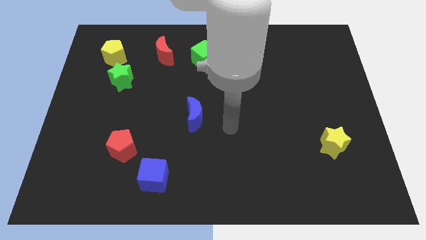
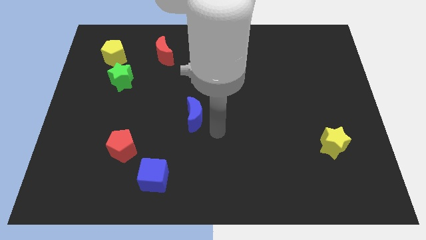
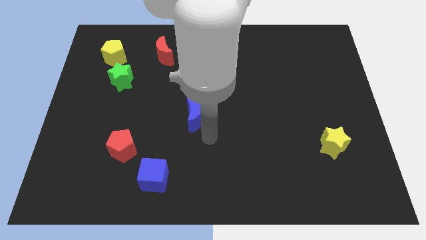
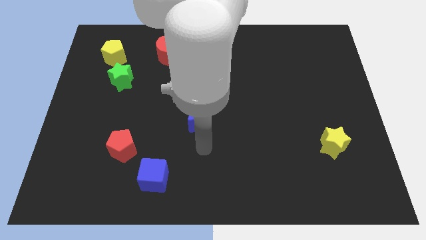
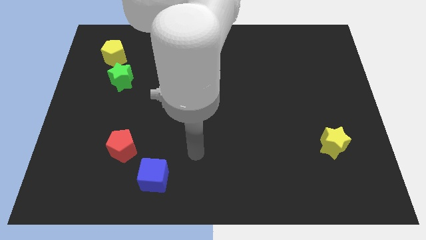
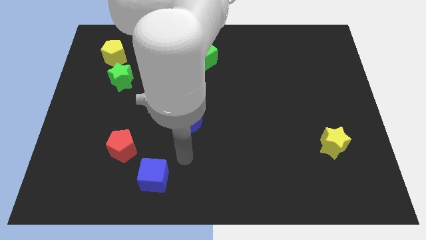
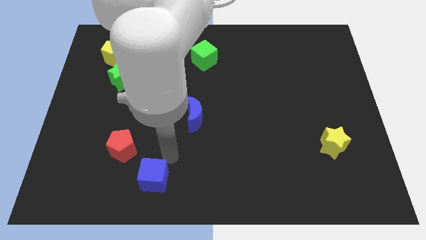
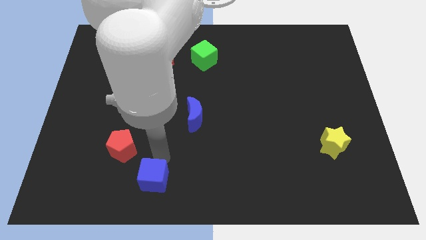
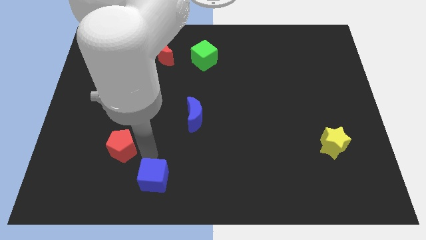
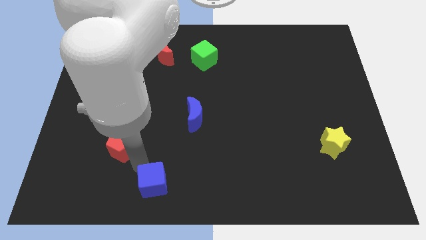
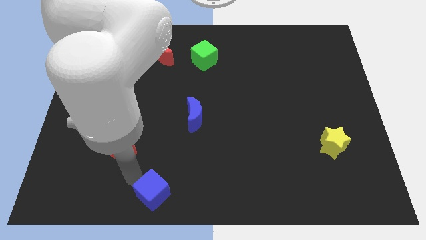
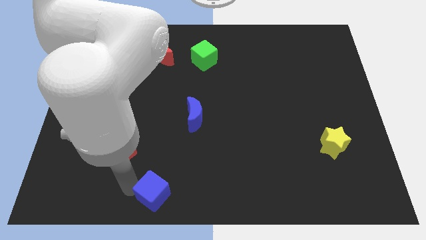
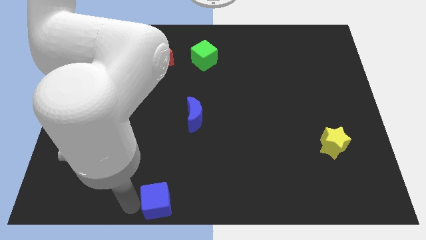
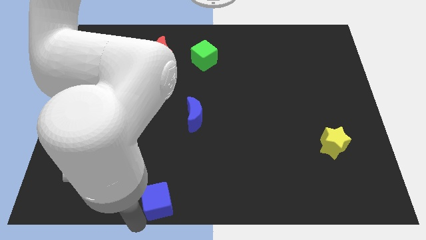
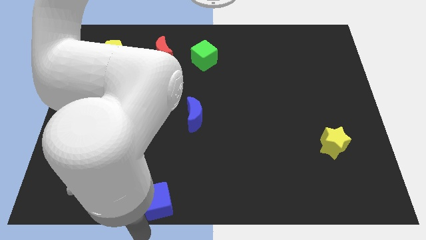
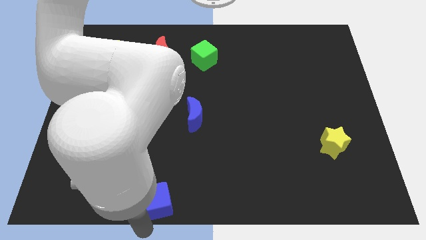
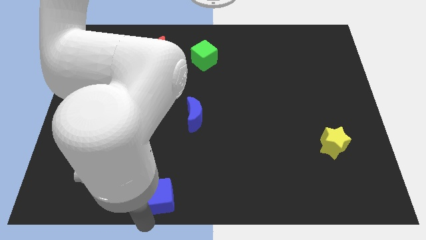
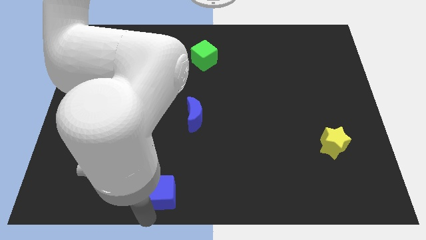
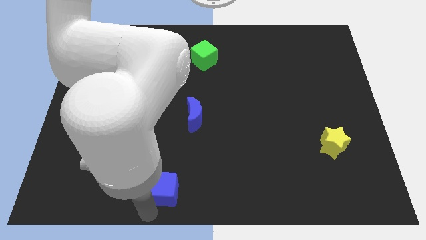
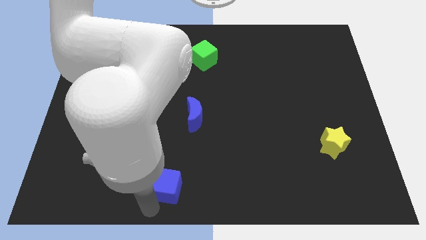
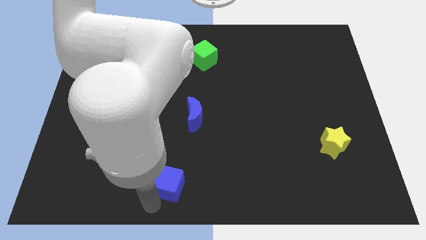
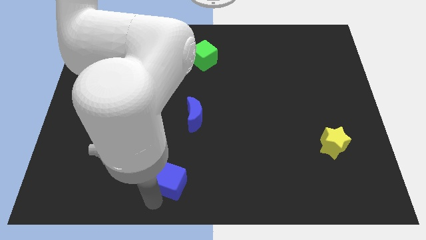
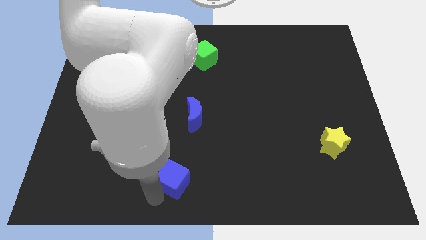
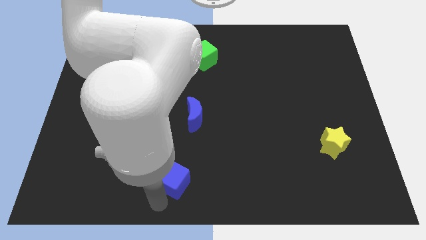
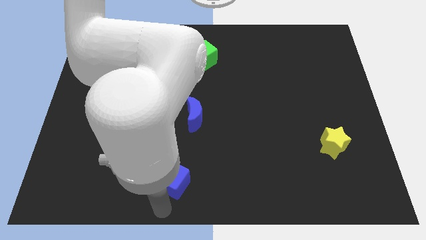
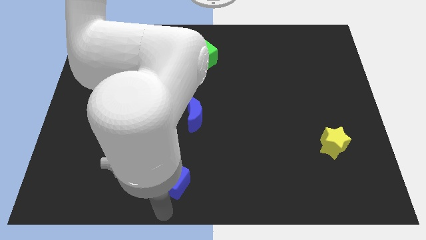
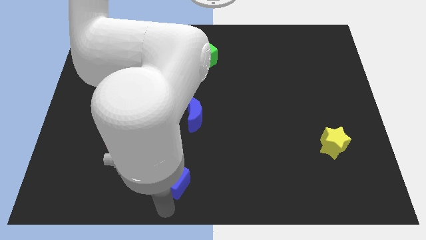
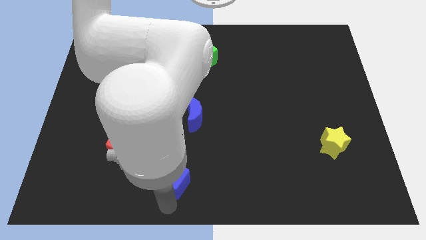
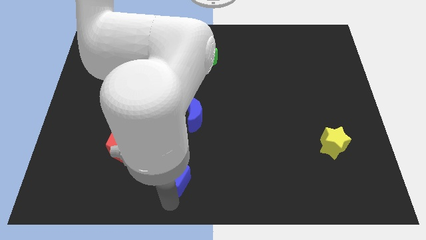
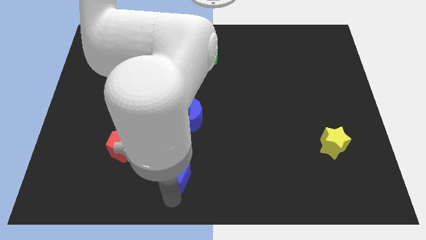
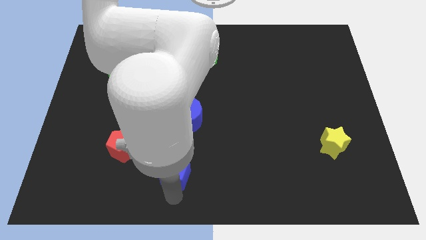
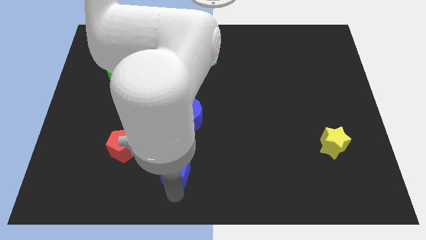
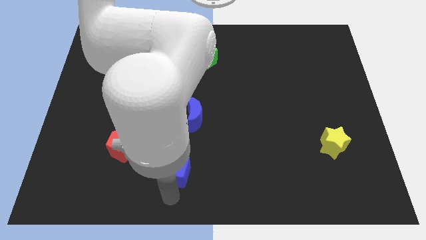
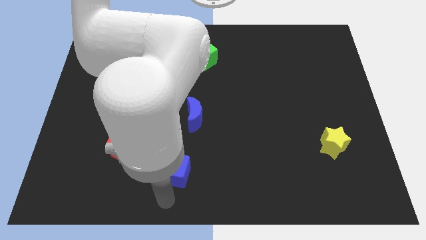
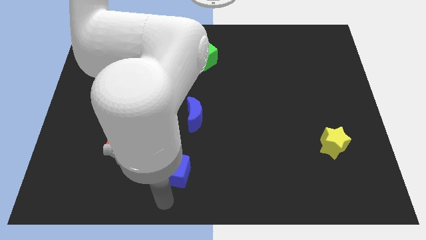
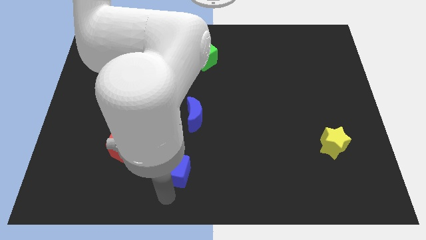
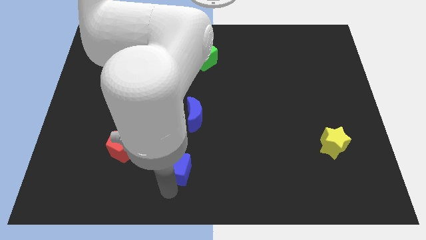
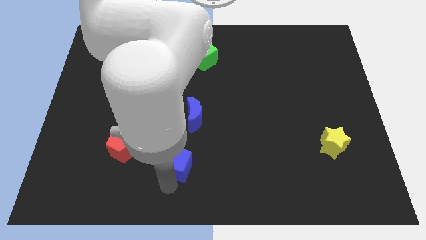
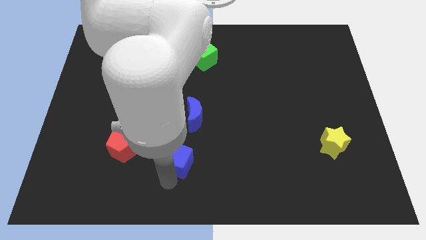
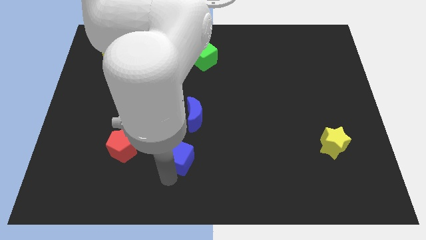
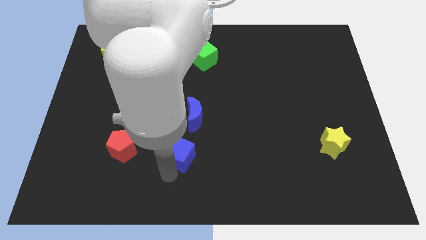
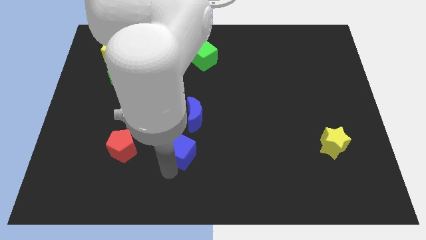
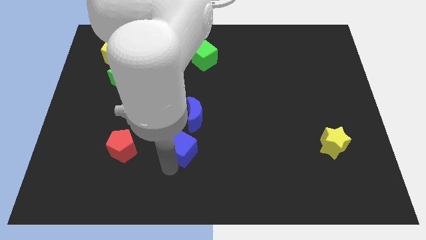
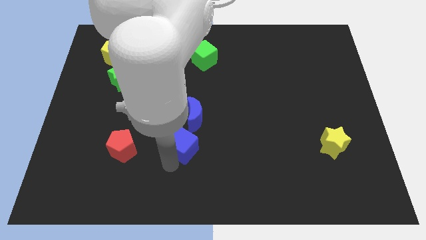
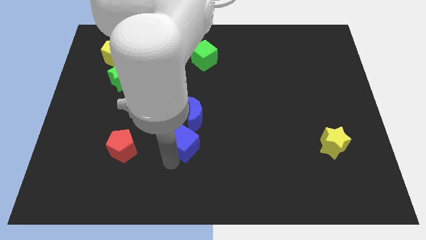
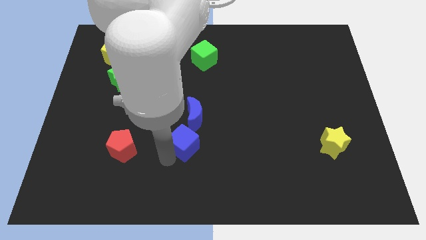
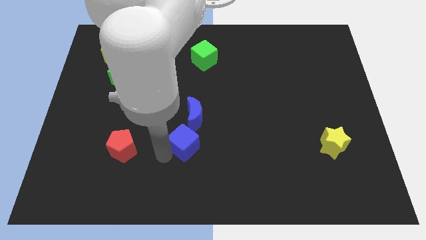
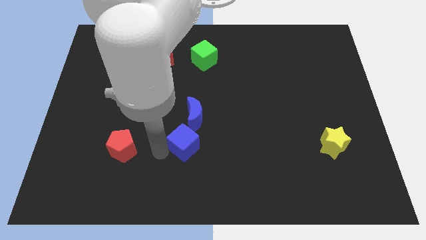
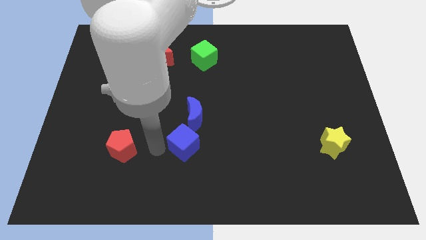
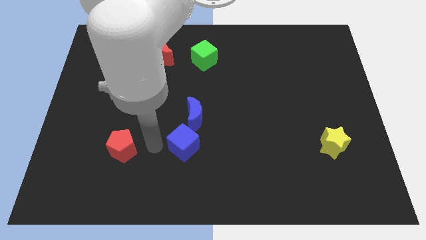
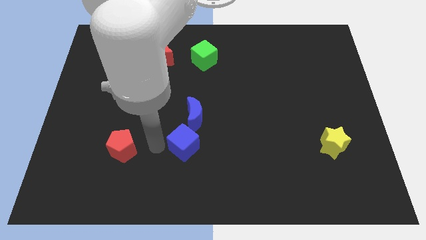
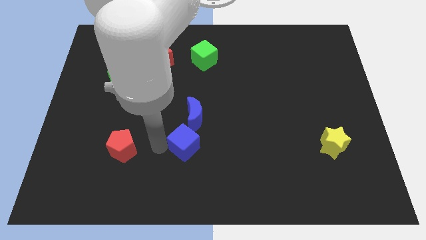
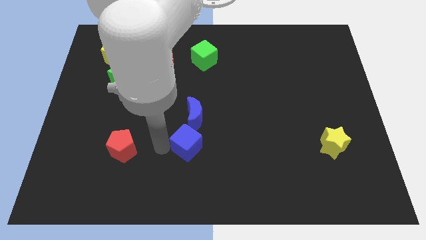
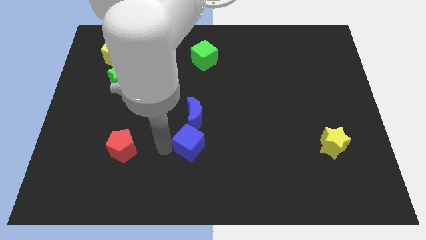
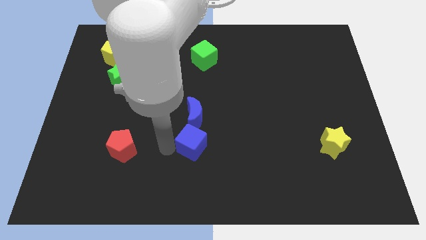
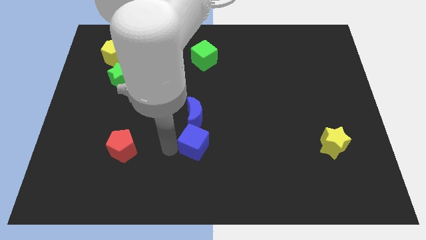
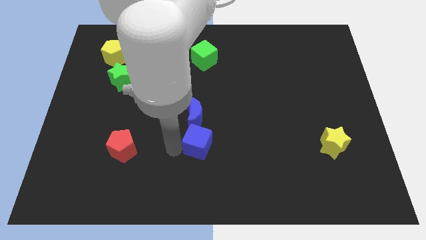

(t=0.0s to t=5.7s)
push the blue cube to the center of the board

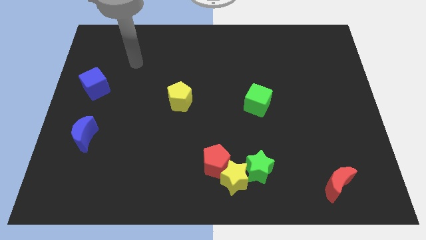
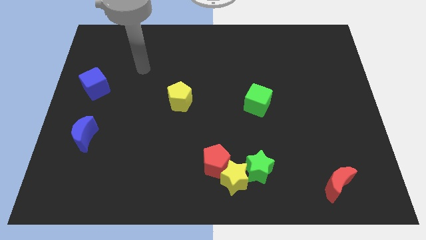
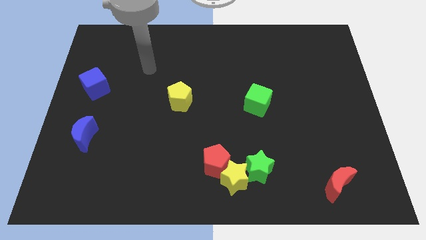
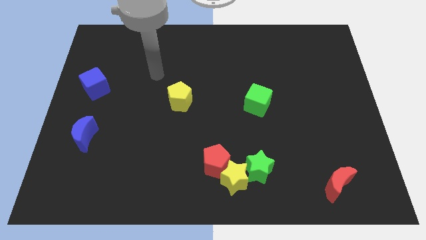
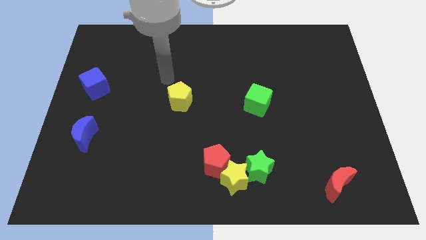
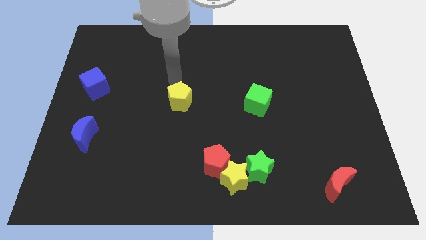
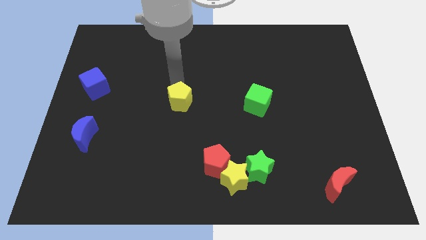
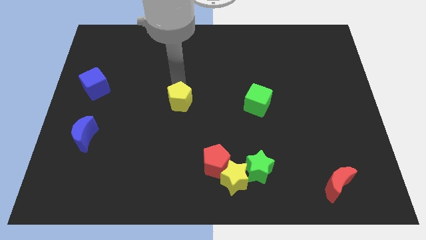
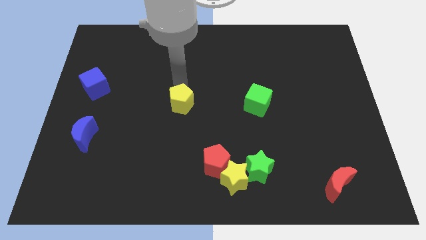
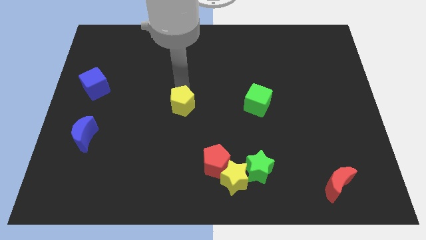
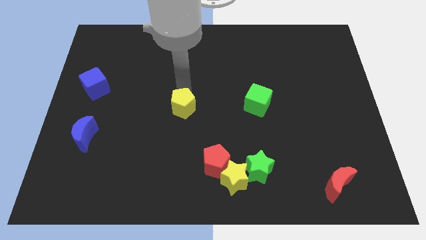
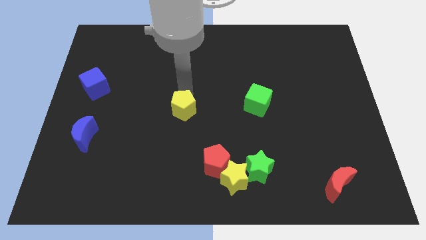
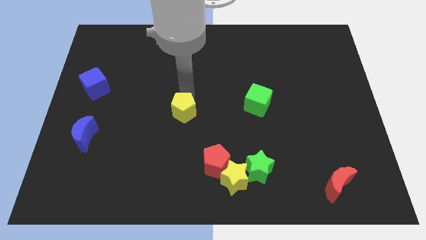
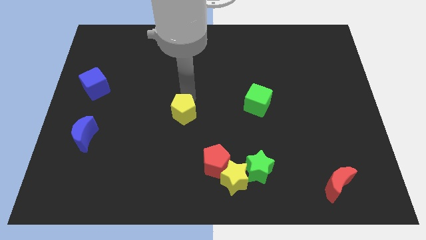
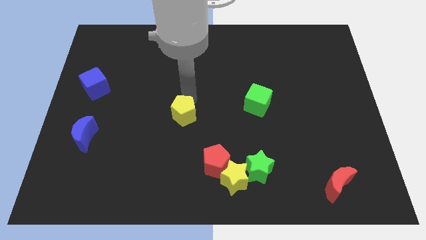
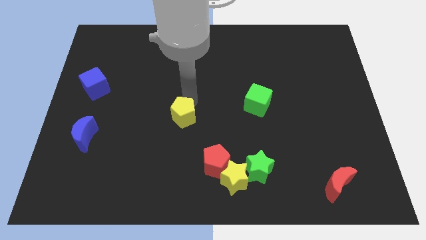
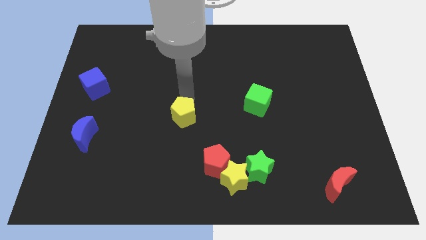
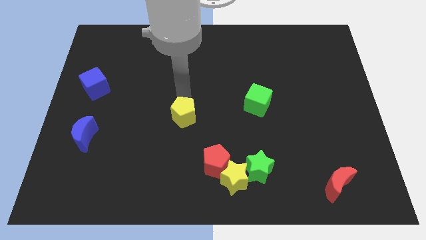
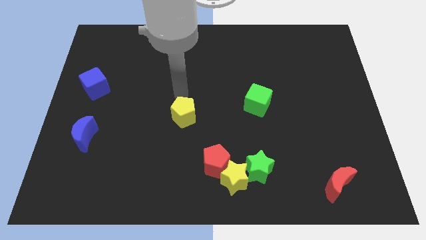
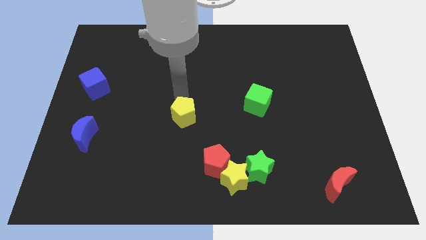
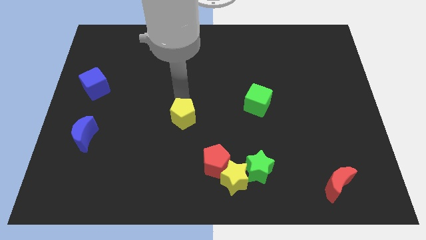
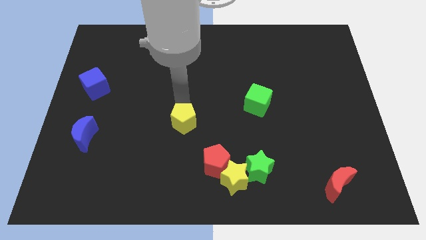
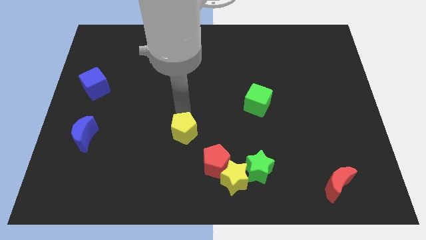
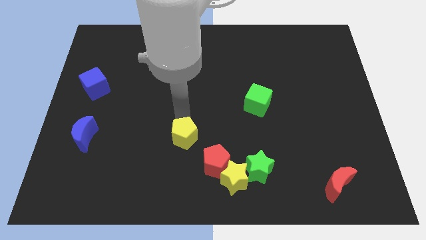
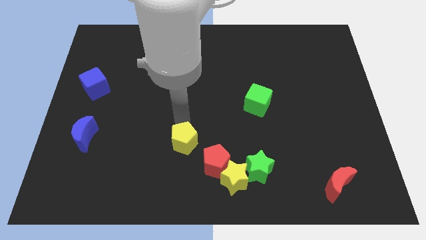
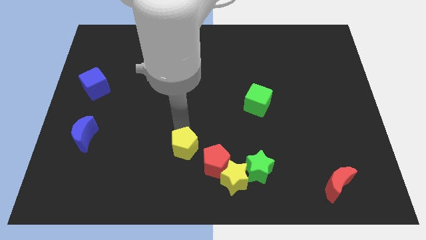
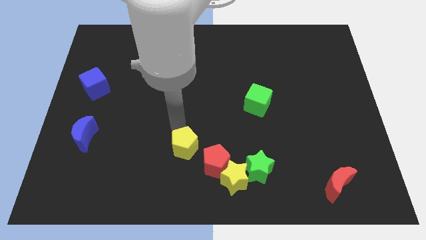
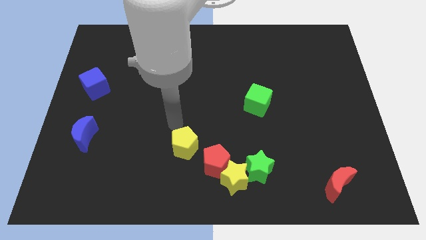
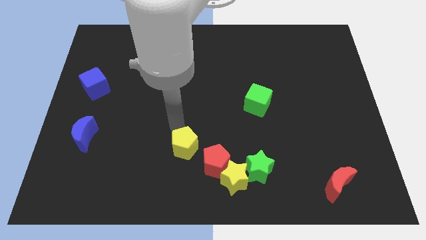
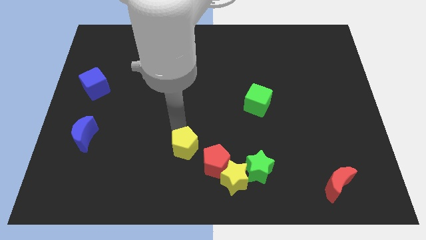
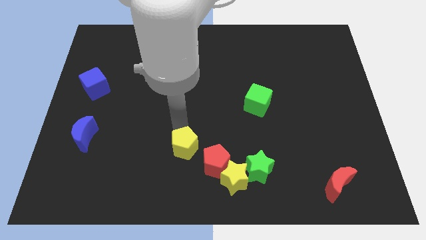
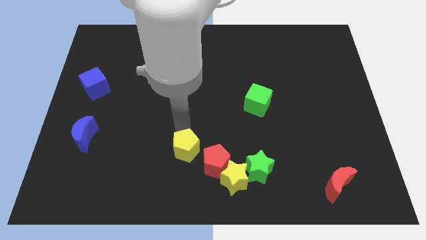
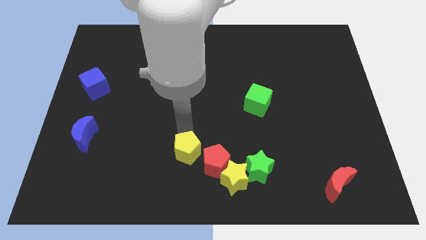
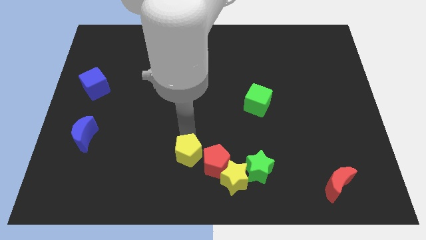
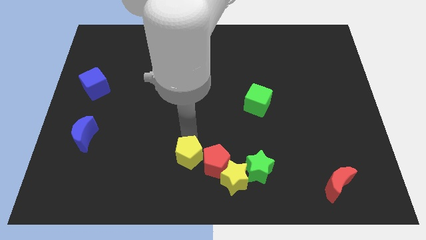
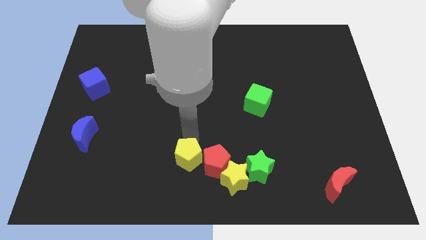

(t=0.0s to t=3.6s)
push the yellow pentagon to the bottom side
